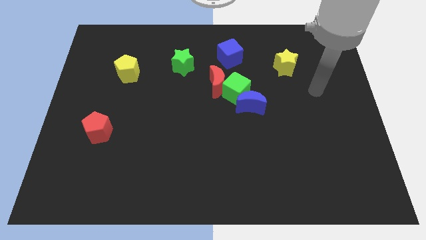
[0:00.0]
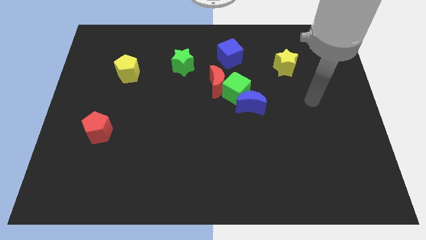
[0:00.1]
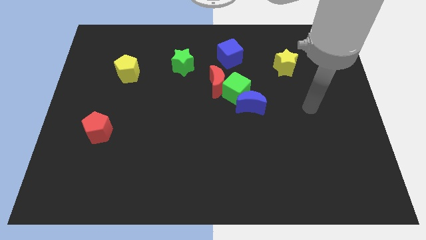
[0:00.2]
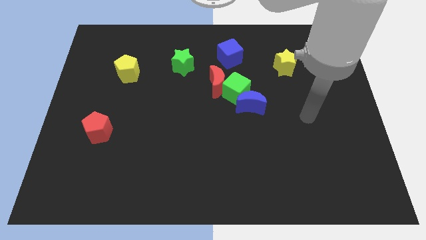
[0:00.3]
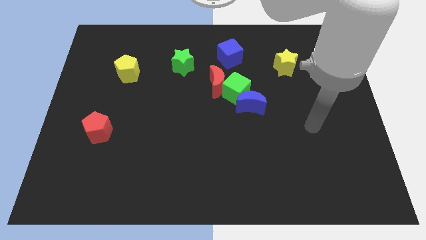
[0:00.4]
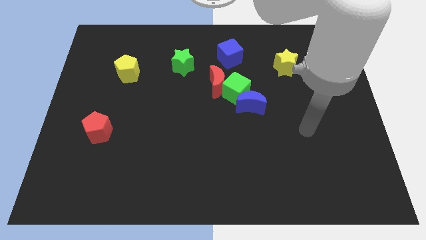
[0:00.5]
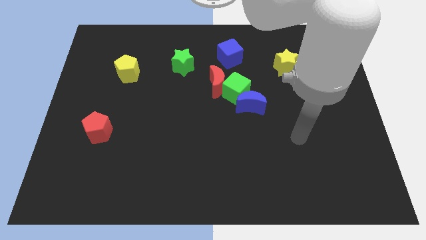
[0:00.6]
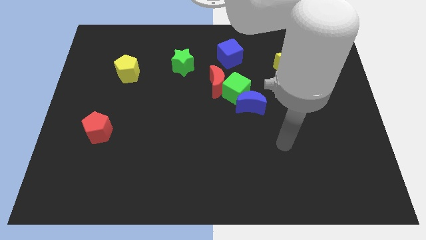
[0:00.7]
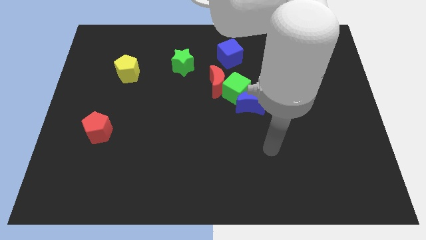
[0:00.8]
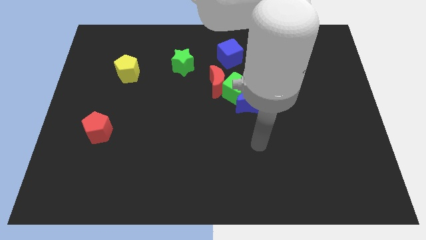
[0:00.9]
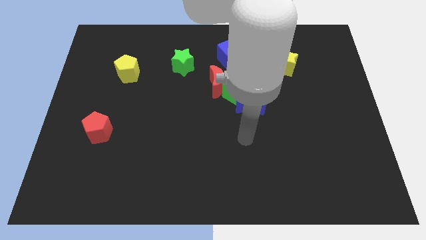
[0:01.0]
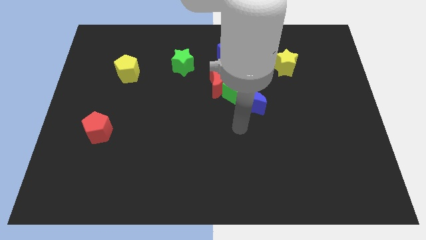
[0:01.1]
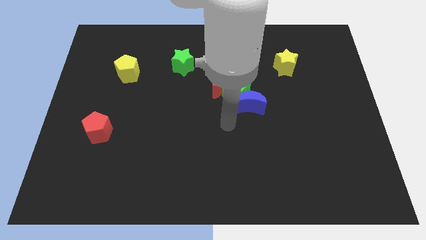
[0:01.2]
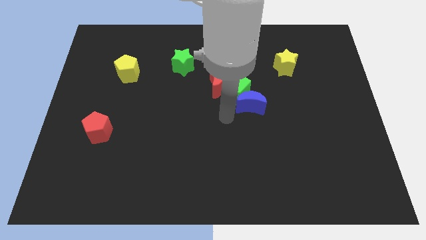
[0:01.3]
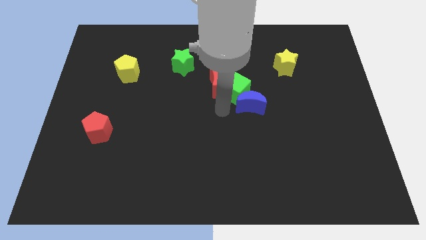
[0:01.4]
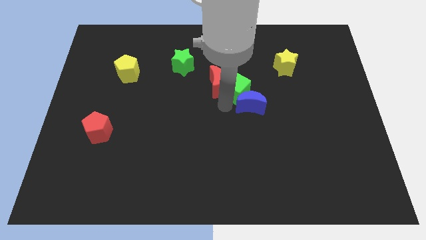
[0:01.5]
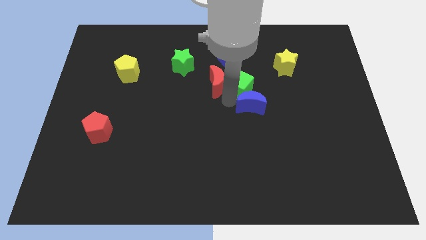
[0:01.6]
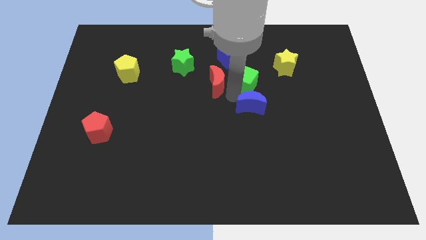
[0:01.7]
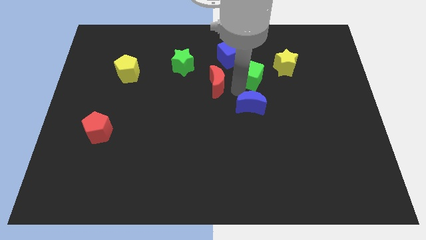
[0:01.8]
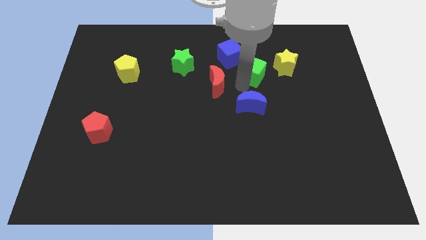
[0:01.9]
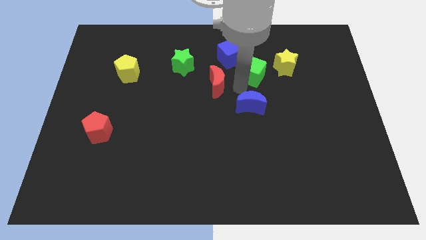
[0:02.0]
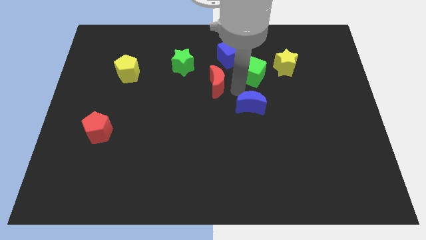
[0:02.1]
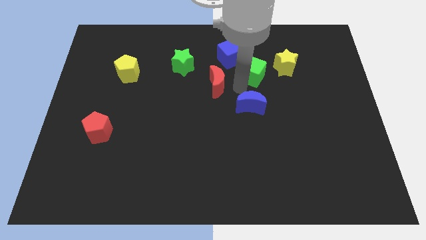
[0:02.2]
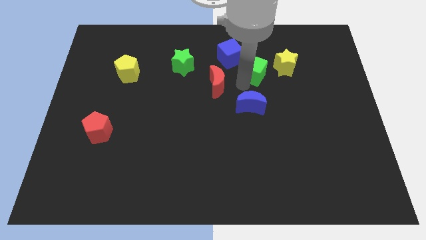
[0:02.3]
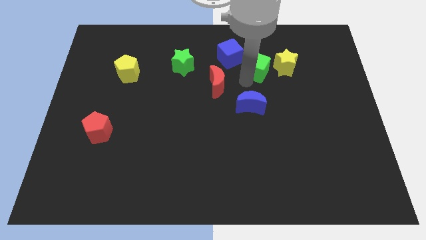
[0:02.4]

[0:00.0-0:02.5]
move the green cube away from the red moon and blue moon

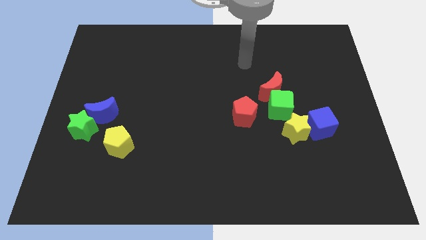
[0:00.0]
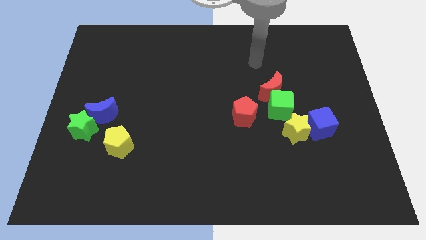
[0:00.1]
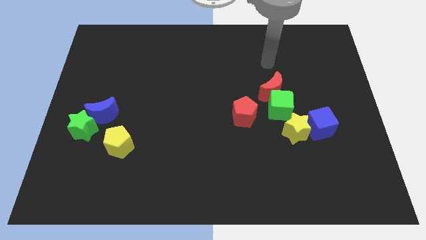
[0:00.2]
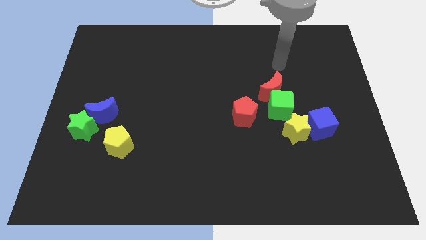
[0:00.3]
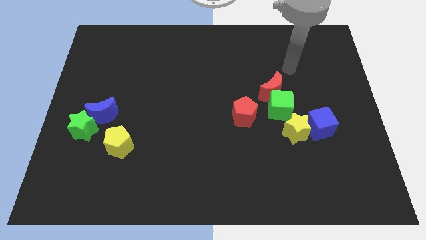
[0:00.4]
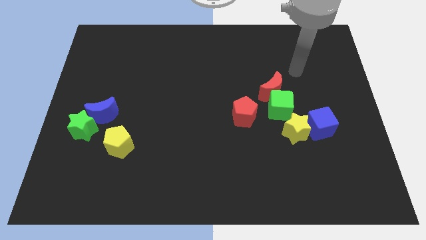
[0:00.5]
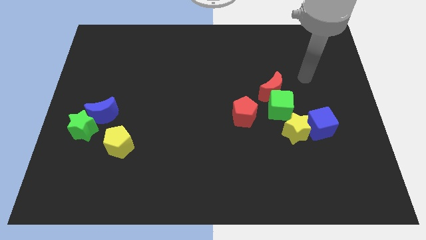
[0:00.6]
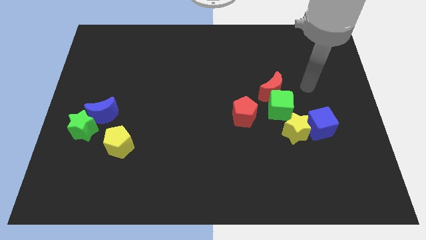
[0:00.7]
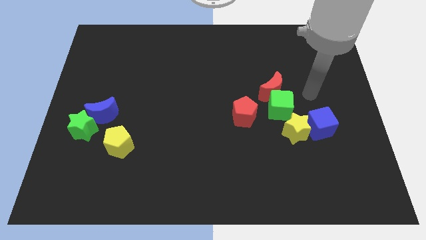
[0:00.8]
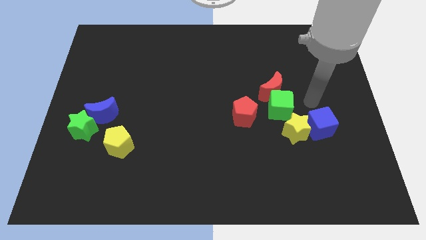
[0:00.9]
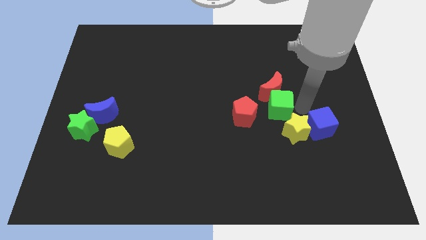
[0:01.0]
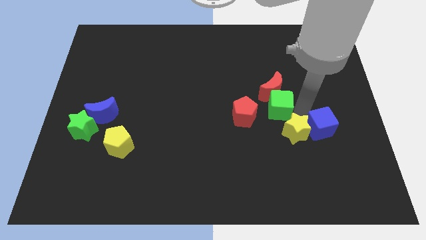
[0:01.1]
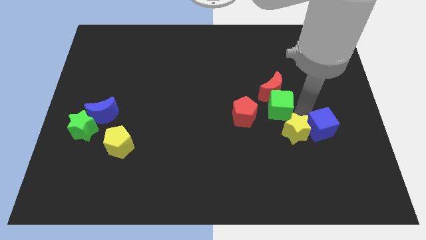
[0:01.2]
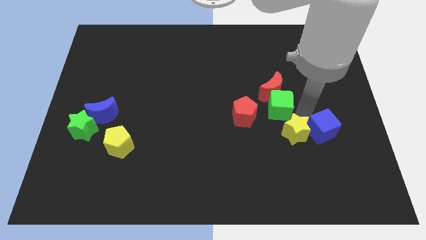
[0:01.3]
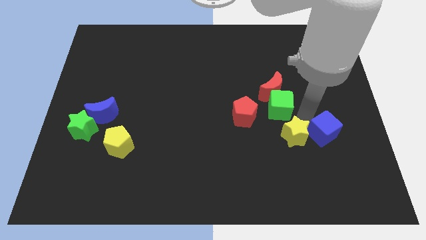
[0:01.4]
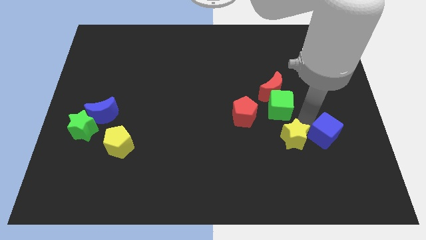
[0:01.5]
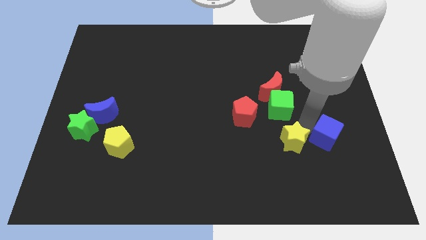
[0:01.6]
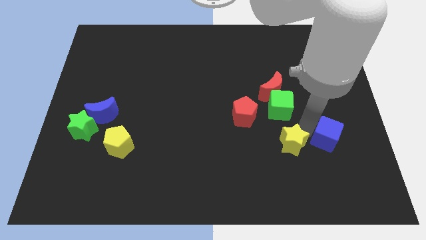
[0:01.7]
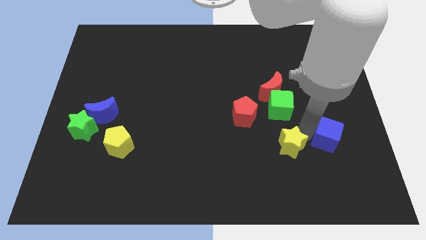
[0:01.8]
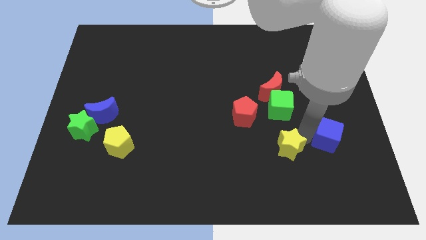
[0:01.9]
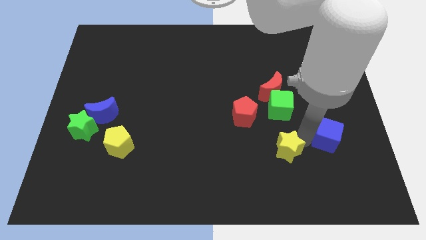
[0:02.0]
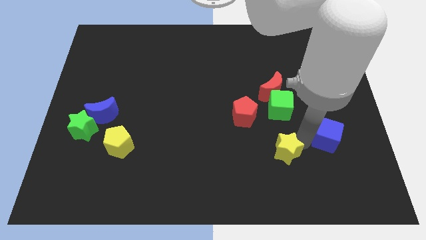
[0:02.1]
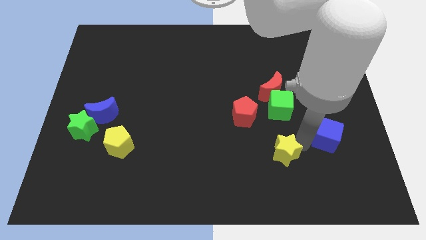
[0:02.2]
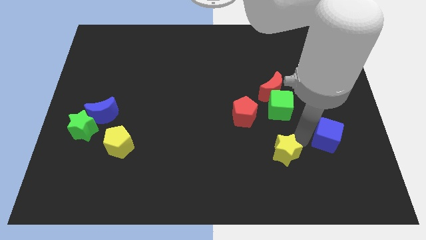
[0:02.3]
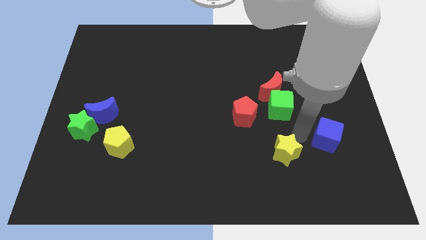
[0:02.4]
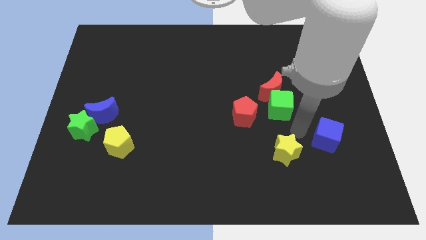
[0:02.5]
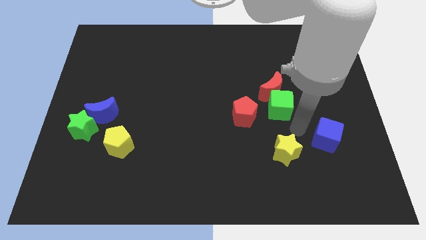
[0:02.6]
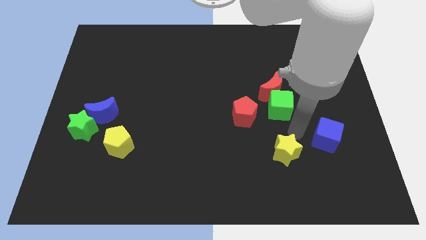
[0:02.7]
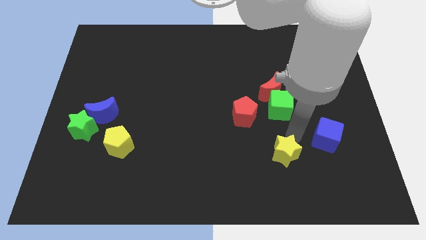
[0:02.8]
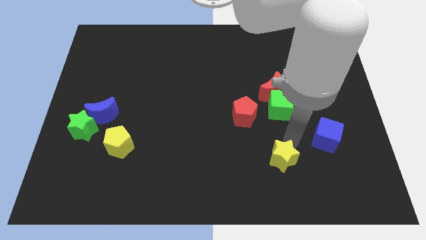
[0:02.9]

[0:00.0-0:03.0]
pull the yellow star apart from the blue cube and green cube

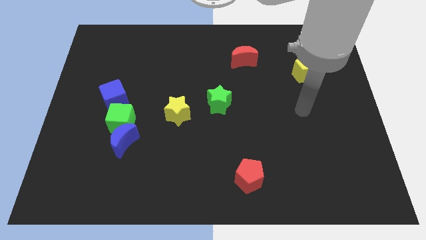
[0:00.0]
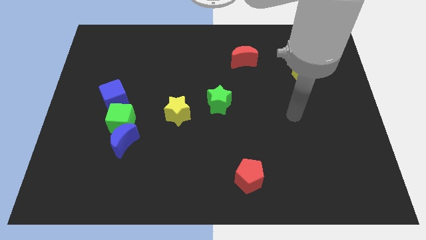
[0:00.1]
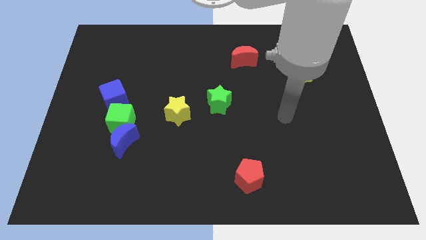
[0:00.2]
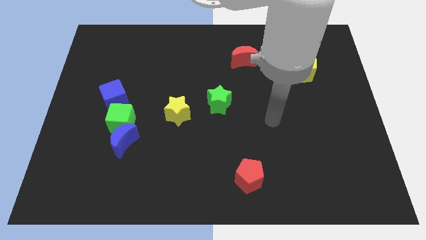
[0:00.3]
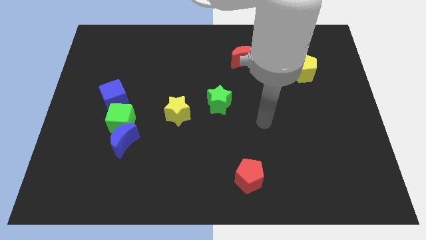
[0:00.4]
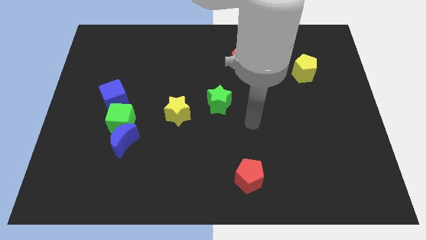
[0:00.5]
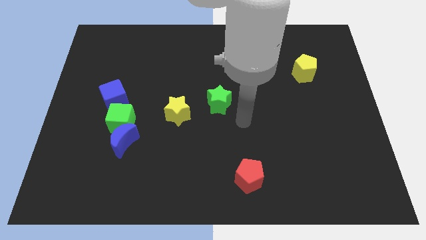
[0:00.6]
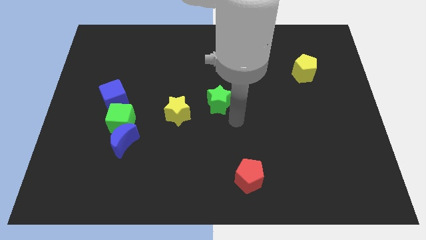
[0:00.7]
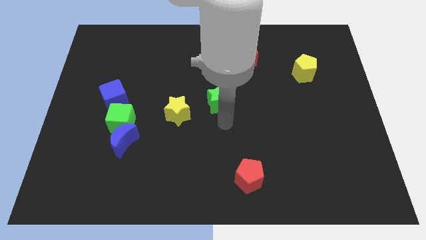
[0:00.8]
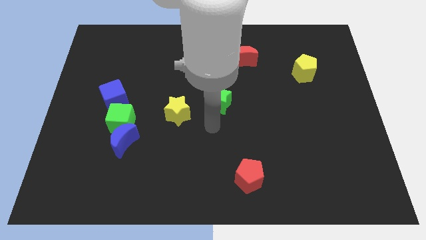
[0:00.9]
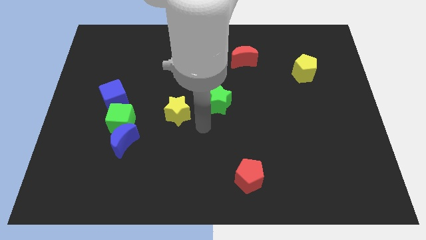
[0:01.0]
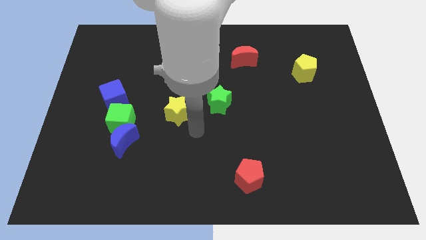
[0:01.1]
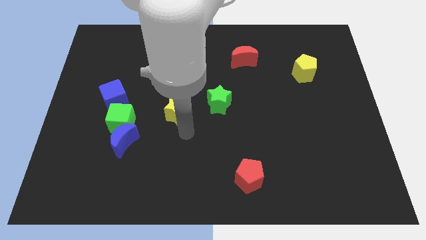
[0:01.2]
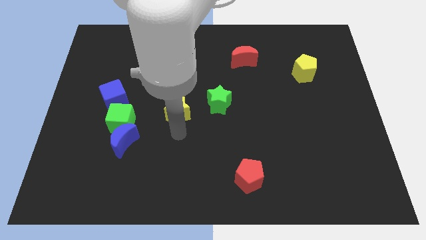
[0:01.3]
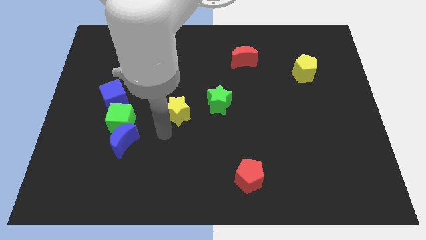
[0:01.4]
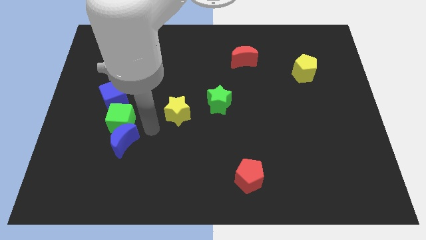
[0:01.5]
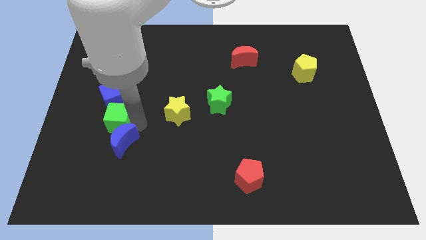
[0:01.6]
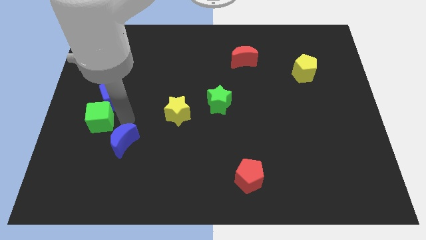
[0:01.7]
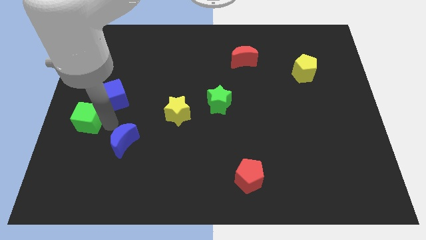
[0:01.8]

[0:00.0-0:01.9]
pull the blue moon apart from the green cube

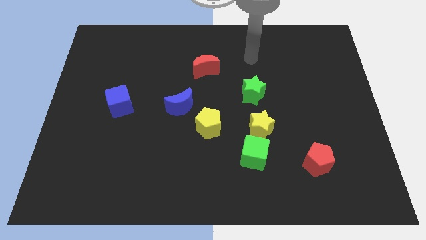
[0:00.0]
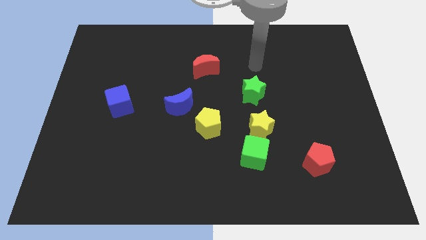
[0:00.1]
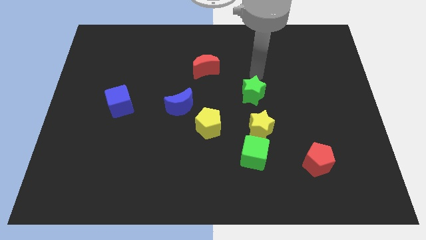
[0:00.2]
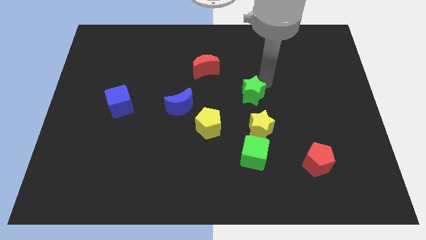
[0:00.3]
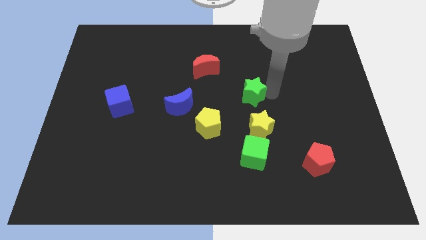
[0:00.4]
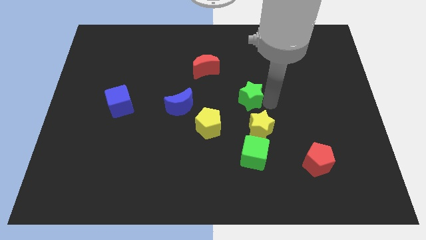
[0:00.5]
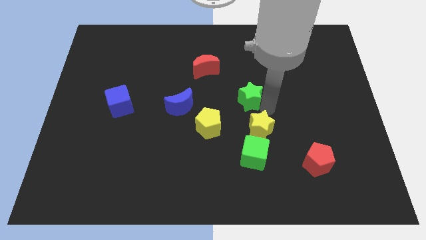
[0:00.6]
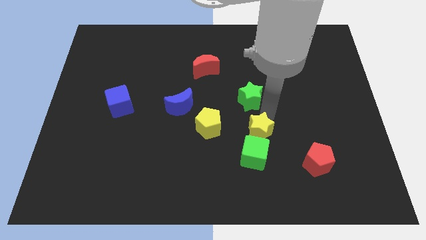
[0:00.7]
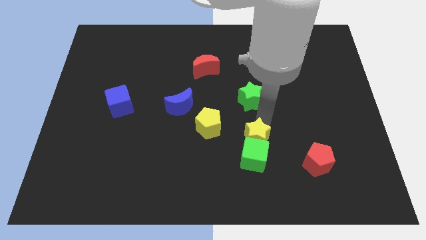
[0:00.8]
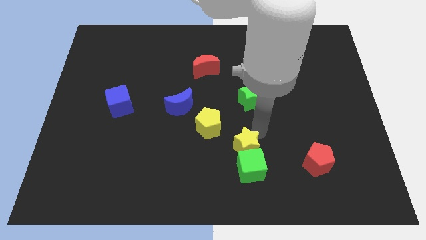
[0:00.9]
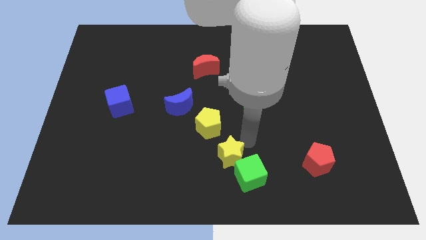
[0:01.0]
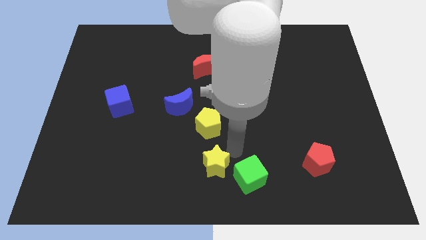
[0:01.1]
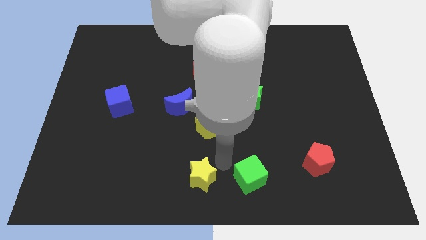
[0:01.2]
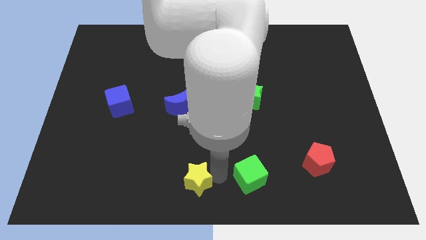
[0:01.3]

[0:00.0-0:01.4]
separate the green cube from the yellow star

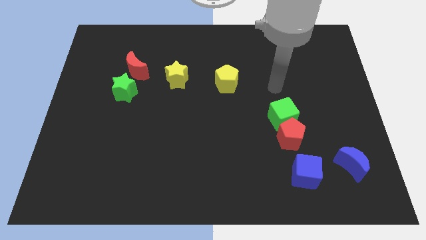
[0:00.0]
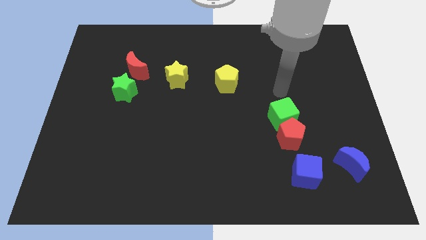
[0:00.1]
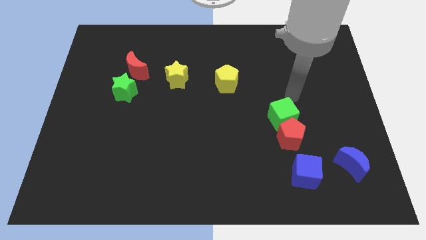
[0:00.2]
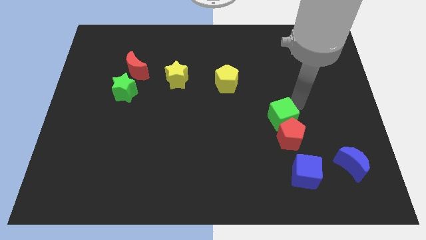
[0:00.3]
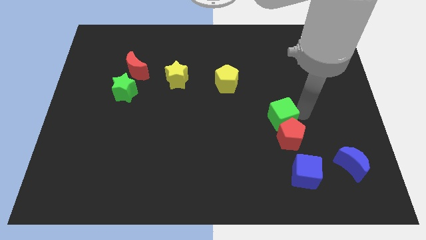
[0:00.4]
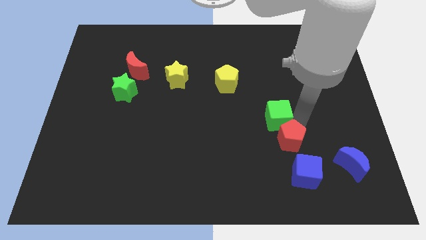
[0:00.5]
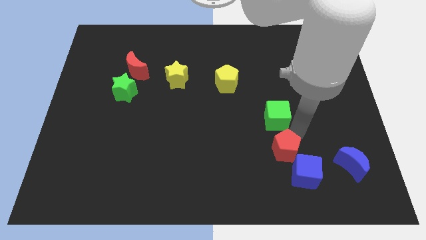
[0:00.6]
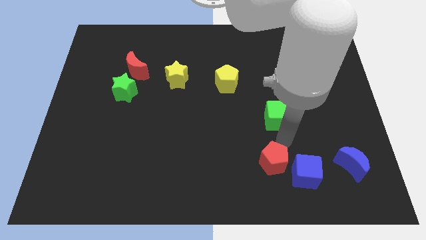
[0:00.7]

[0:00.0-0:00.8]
move the green cube away from the red pentagon
